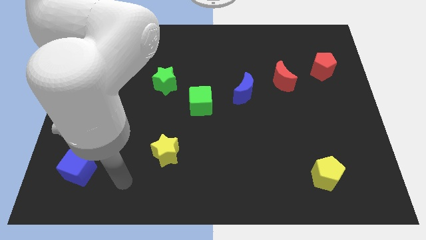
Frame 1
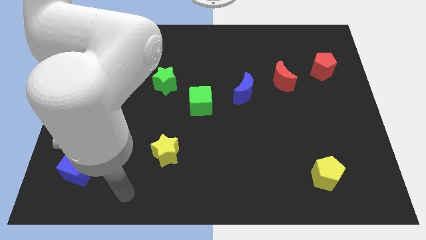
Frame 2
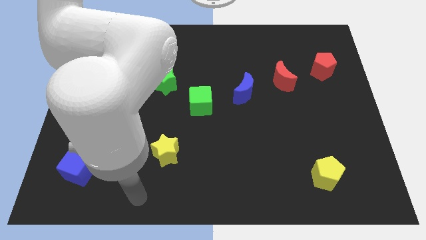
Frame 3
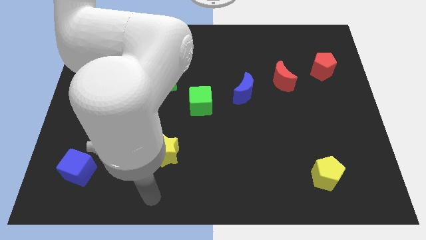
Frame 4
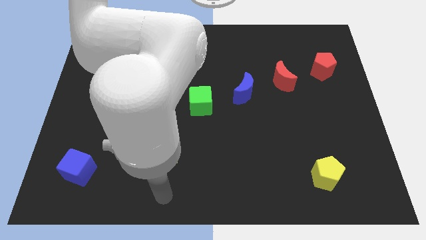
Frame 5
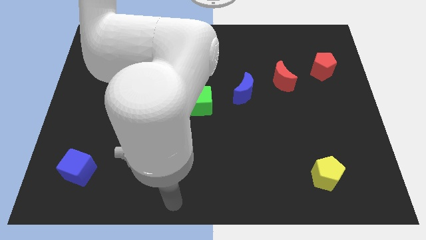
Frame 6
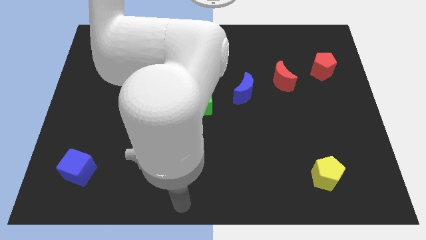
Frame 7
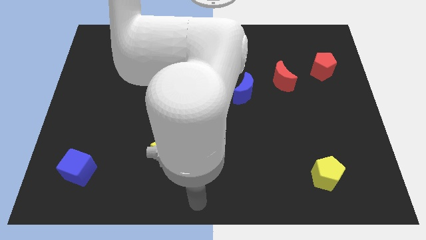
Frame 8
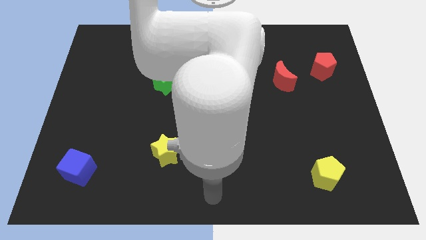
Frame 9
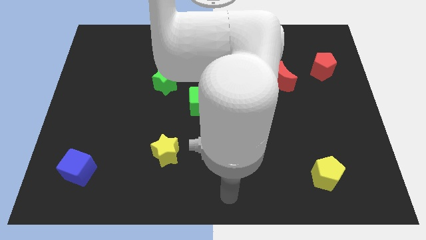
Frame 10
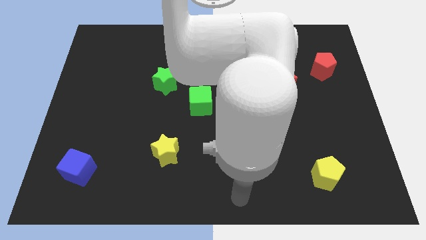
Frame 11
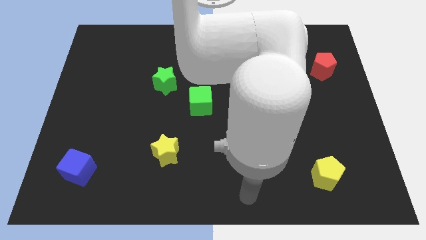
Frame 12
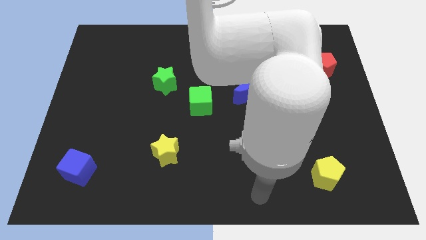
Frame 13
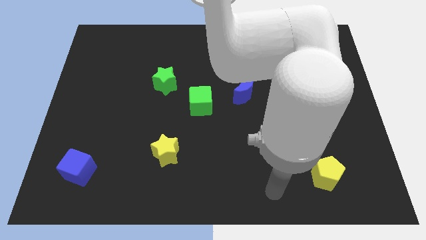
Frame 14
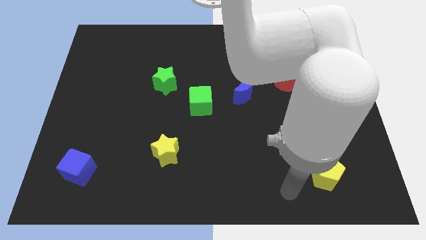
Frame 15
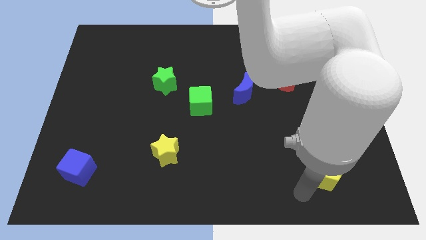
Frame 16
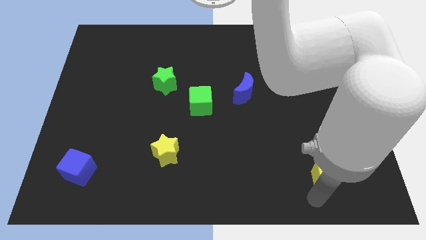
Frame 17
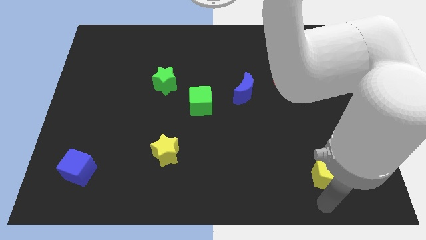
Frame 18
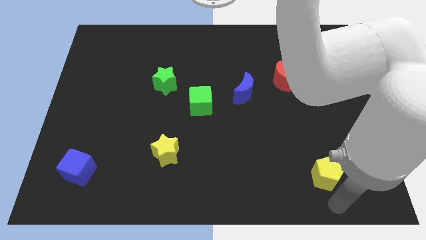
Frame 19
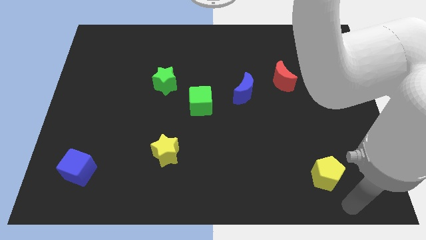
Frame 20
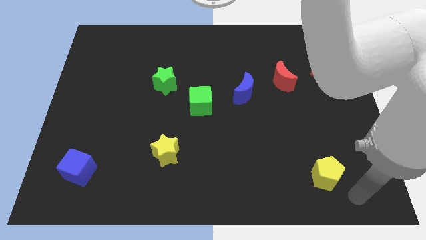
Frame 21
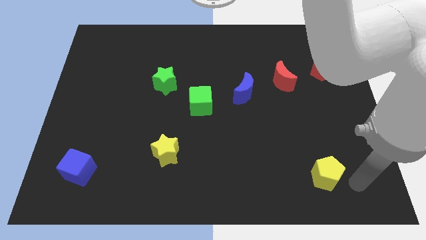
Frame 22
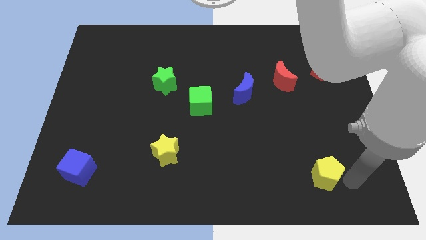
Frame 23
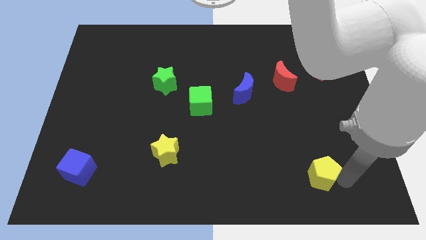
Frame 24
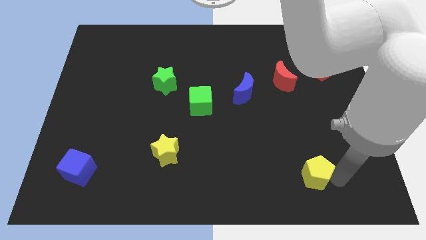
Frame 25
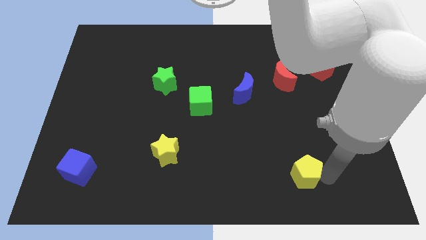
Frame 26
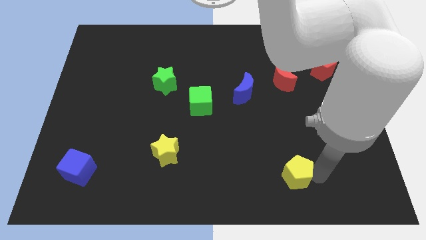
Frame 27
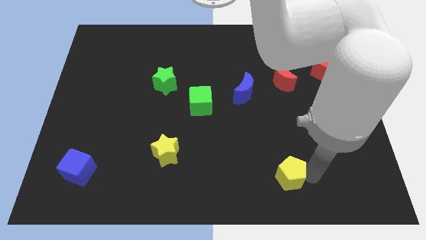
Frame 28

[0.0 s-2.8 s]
slightly slide the yellow pentagon left

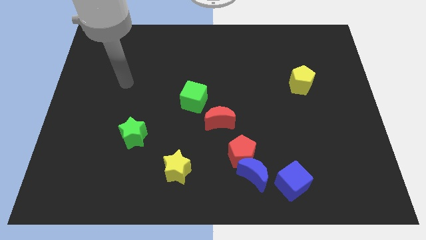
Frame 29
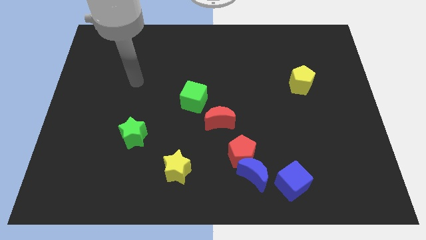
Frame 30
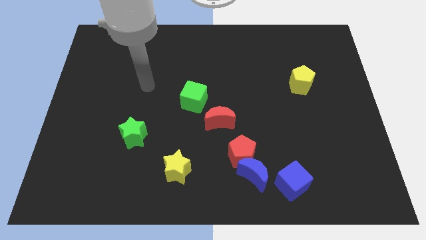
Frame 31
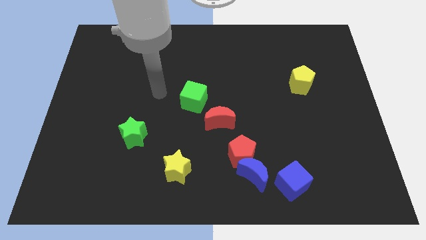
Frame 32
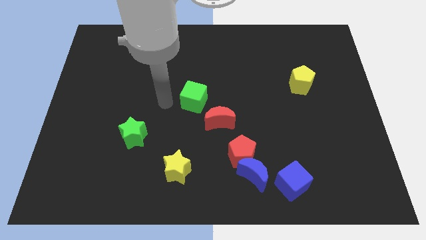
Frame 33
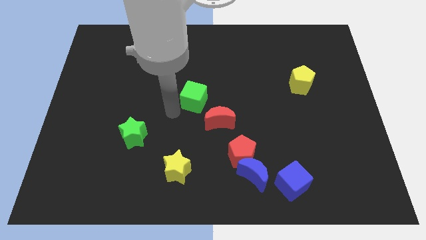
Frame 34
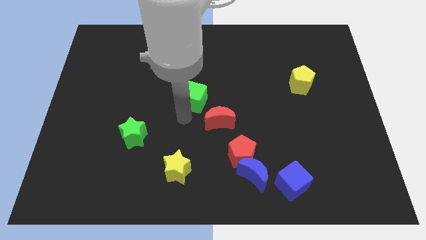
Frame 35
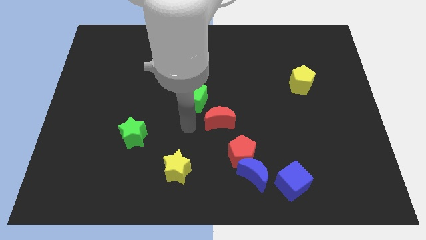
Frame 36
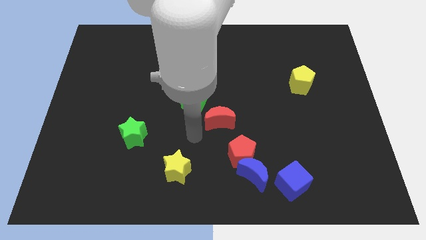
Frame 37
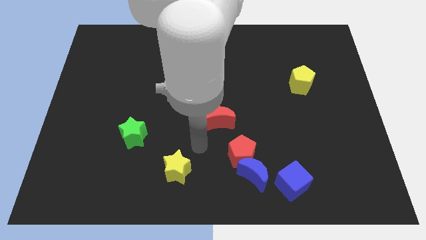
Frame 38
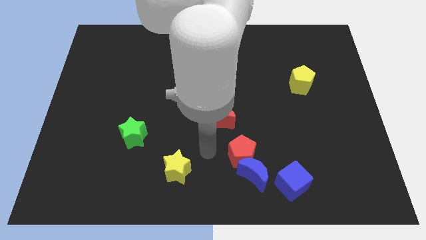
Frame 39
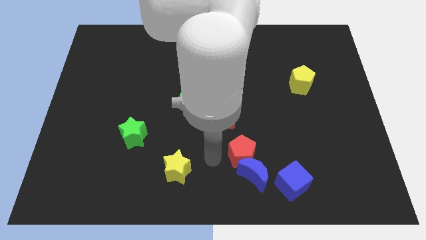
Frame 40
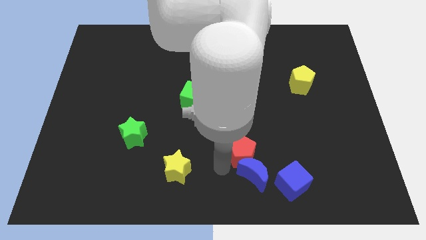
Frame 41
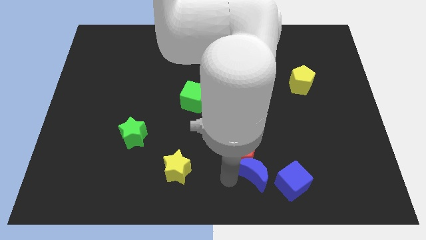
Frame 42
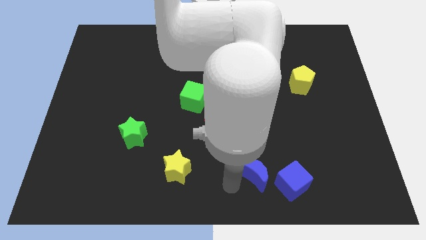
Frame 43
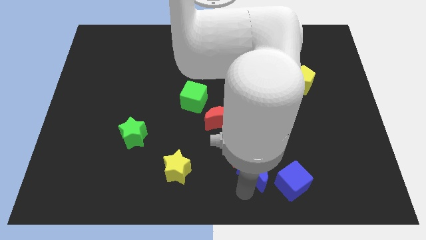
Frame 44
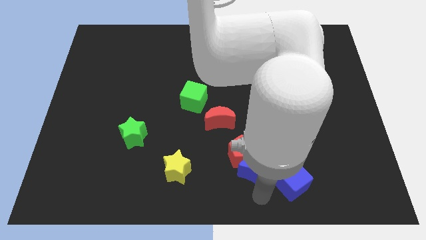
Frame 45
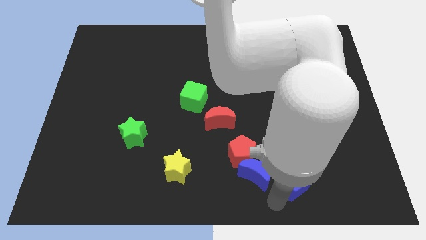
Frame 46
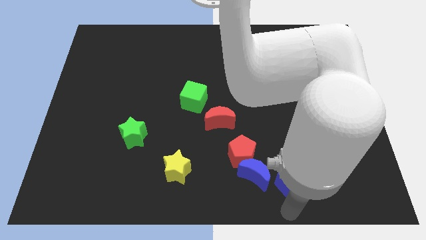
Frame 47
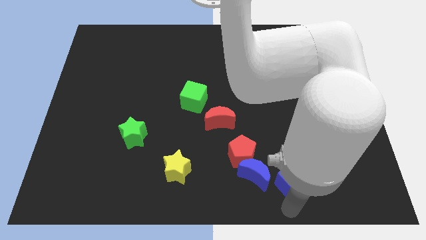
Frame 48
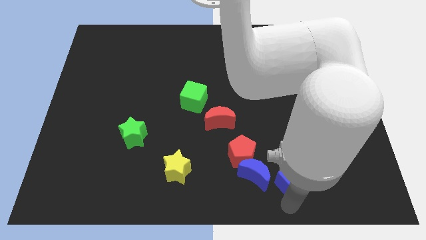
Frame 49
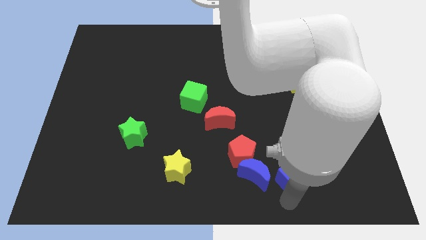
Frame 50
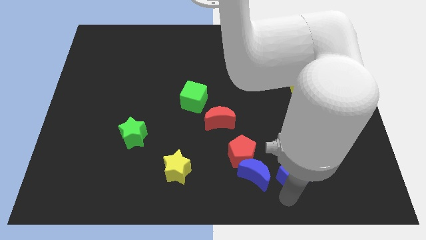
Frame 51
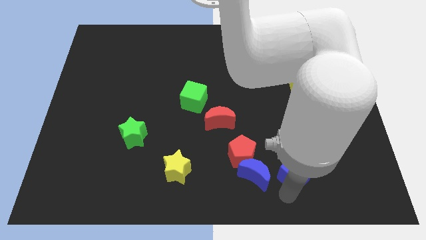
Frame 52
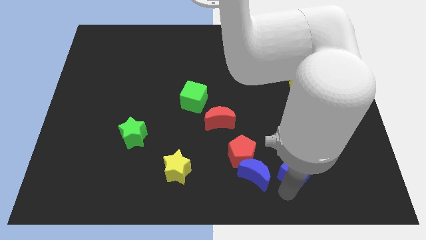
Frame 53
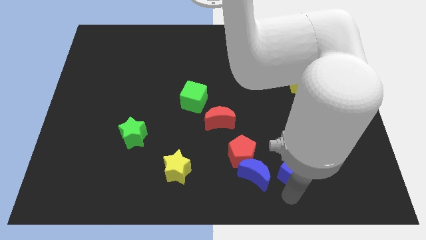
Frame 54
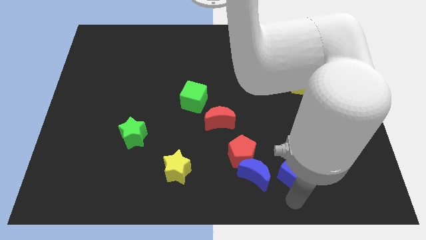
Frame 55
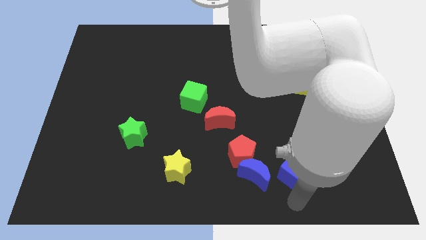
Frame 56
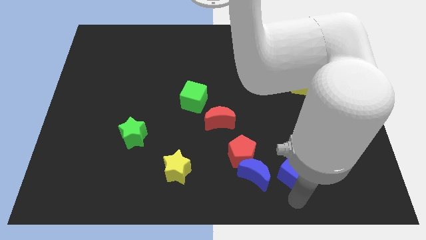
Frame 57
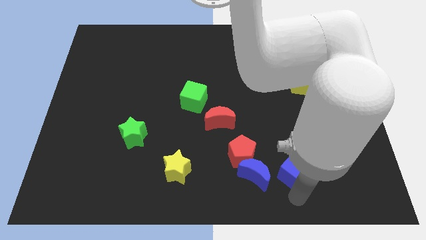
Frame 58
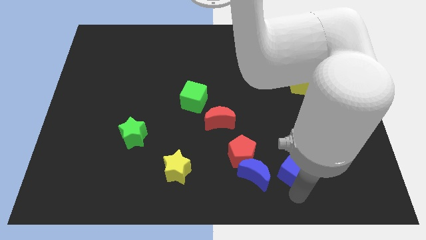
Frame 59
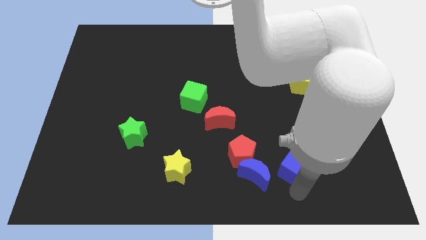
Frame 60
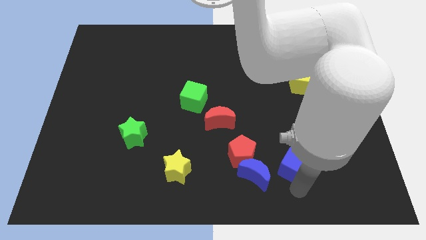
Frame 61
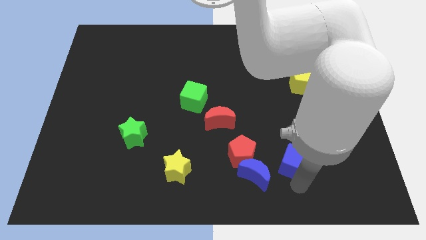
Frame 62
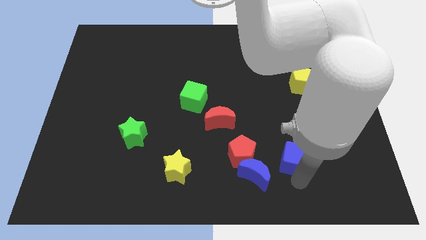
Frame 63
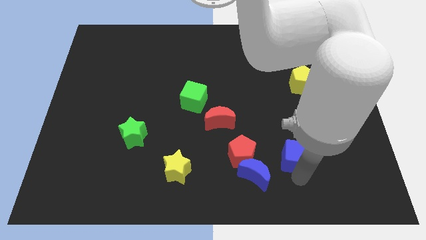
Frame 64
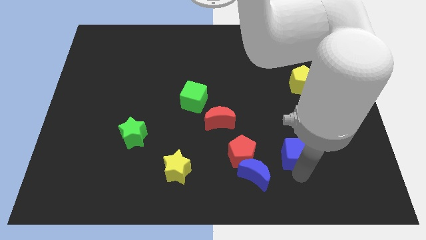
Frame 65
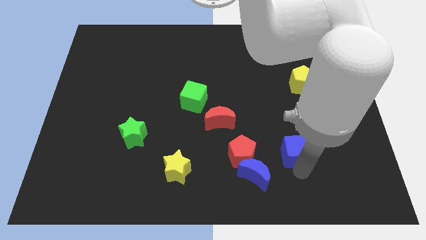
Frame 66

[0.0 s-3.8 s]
push the blue cube upwards a little bit

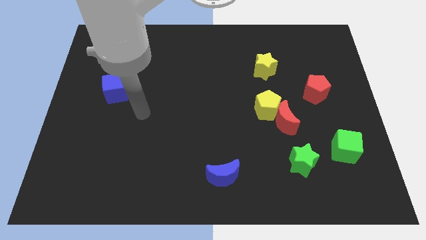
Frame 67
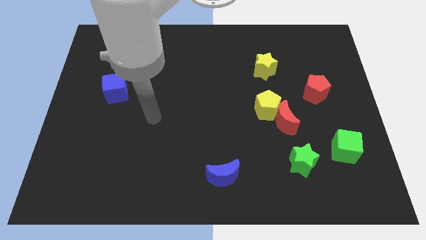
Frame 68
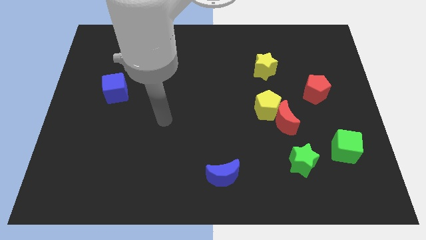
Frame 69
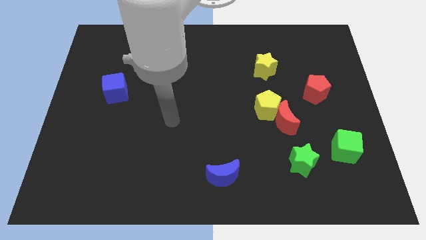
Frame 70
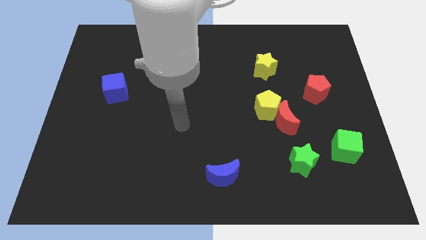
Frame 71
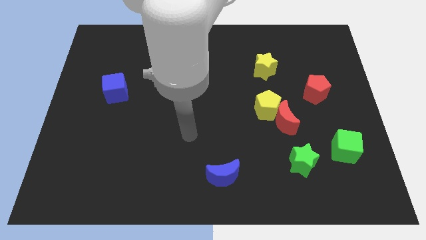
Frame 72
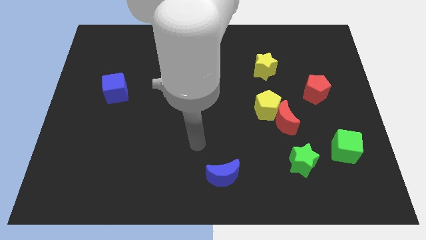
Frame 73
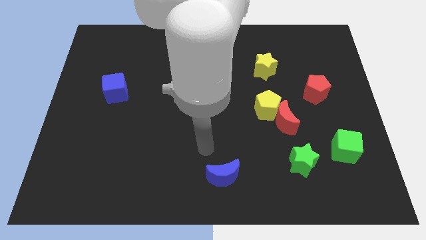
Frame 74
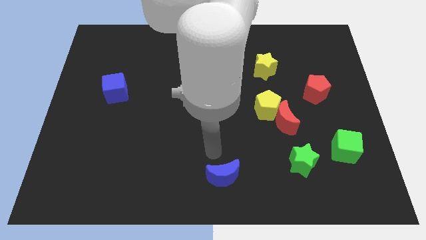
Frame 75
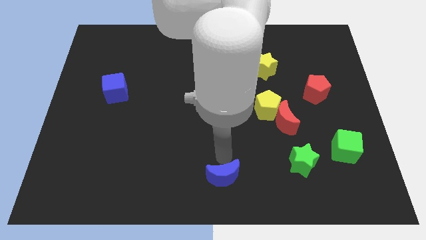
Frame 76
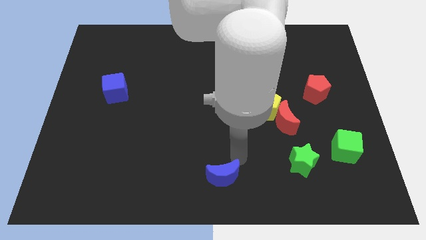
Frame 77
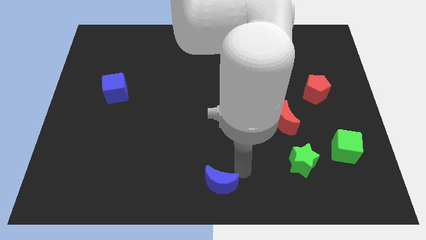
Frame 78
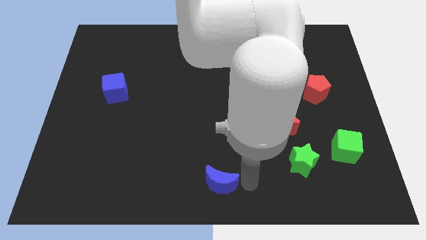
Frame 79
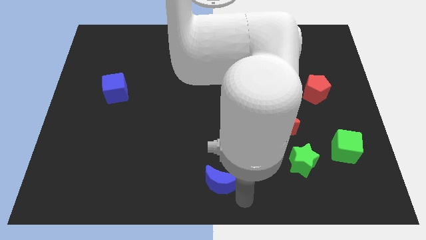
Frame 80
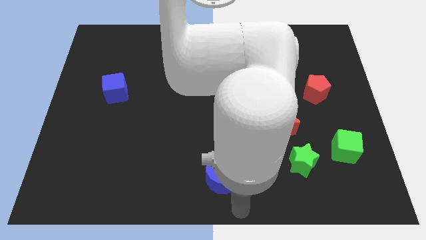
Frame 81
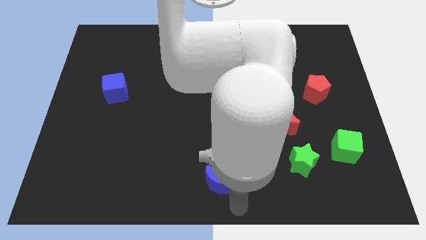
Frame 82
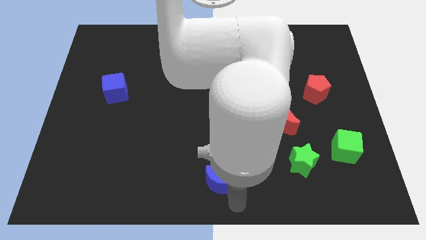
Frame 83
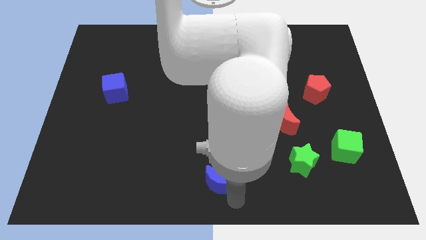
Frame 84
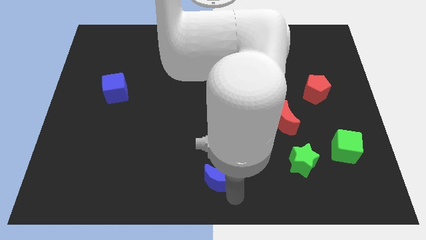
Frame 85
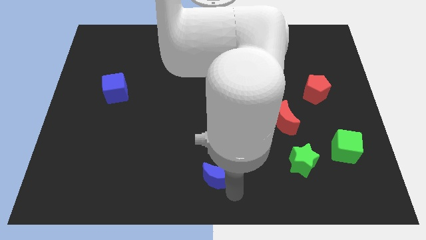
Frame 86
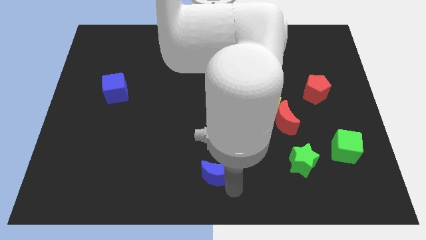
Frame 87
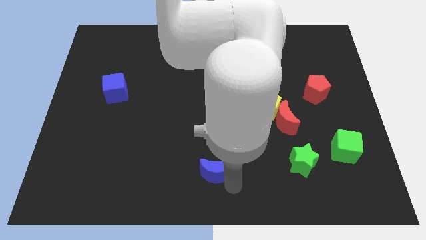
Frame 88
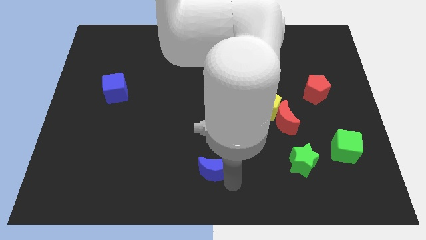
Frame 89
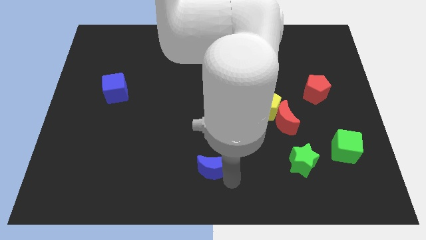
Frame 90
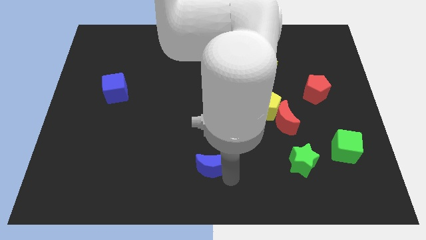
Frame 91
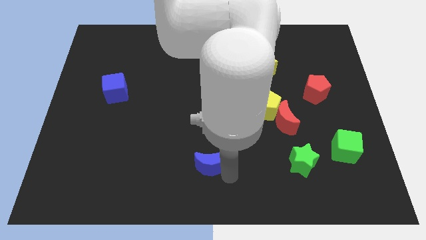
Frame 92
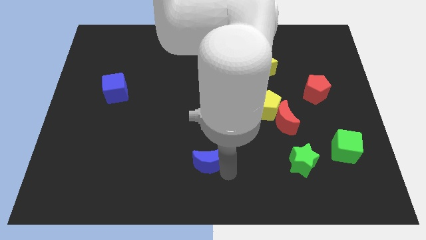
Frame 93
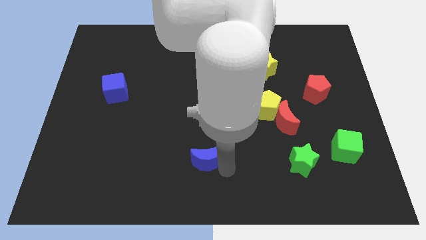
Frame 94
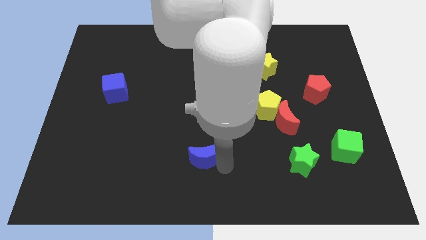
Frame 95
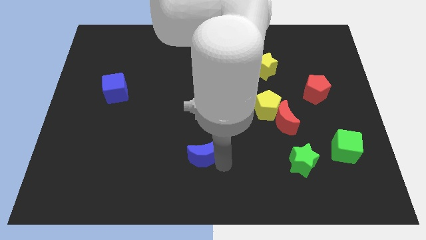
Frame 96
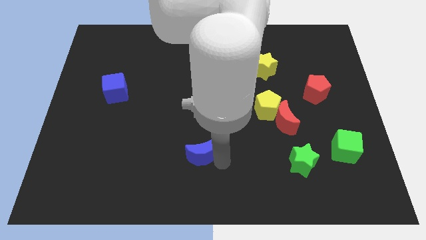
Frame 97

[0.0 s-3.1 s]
slightly push the blue moon upwards and to the left diagonally
